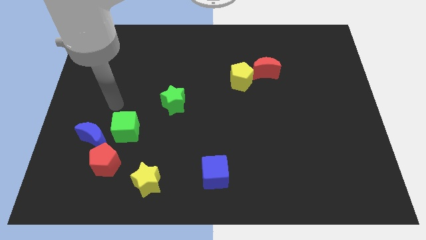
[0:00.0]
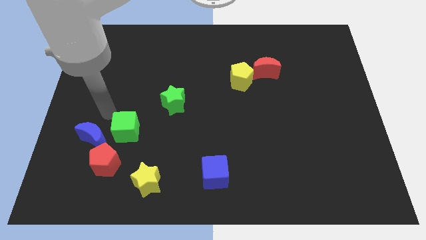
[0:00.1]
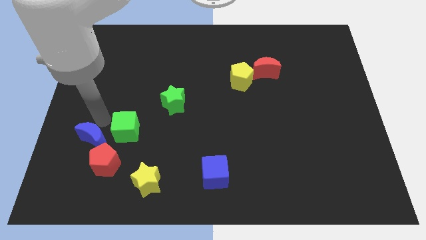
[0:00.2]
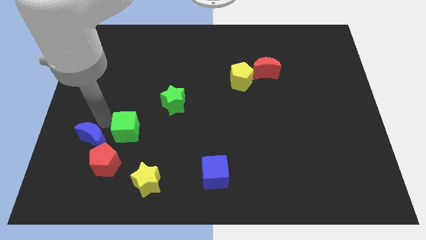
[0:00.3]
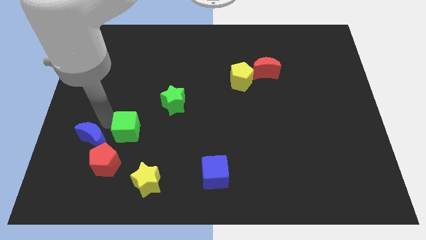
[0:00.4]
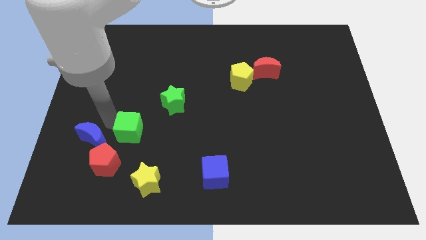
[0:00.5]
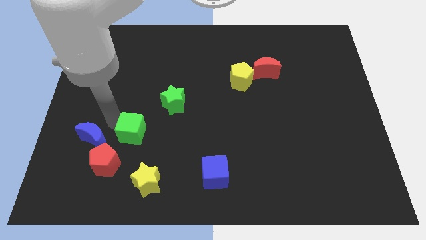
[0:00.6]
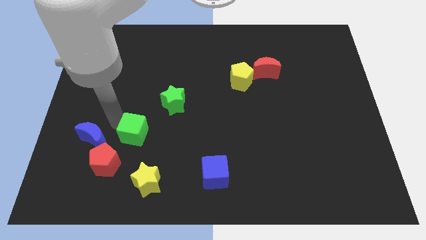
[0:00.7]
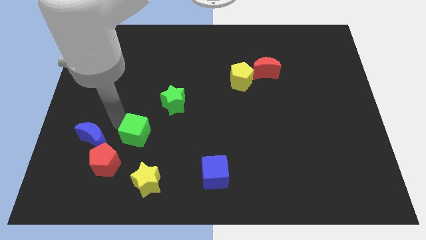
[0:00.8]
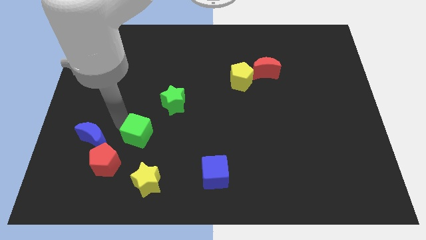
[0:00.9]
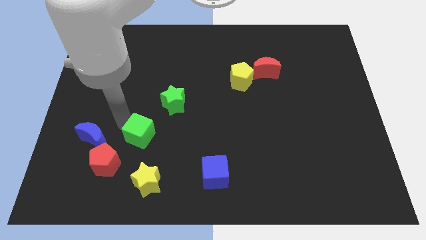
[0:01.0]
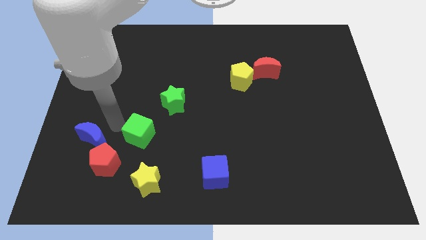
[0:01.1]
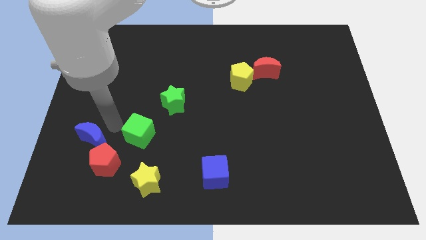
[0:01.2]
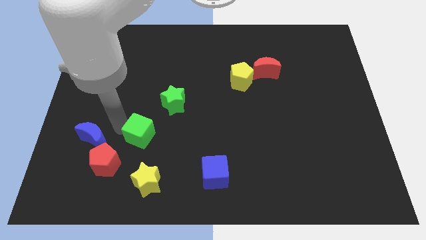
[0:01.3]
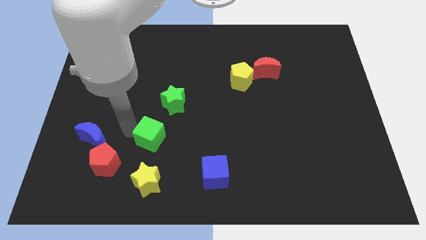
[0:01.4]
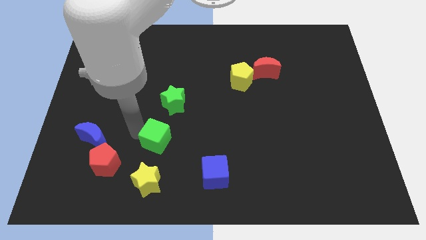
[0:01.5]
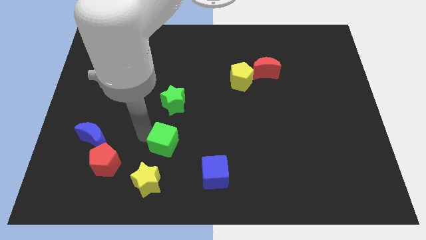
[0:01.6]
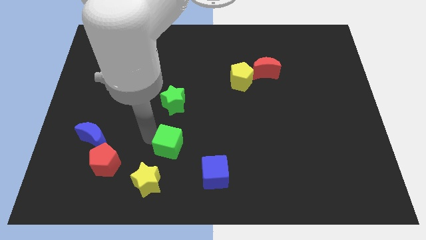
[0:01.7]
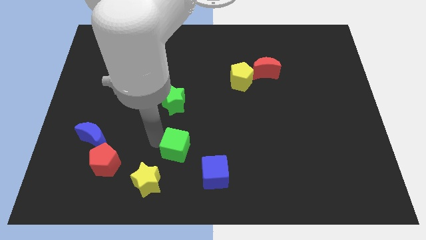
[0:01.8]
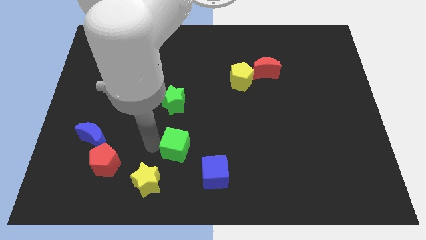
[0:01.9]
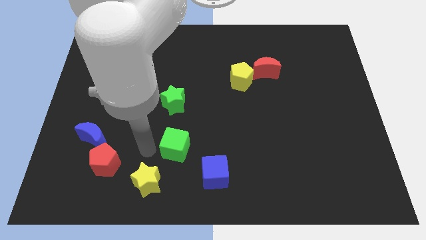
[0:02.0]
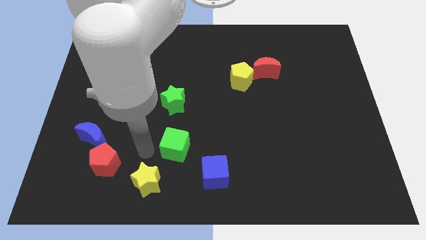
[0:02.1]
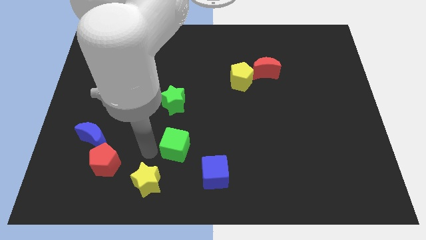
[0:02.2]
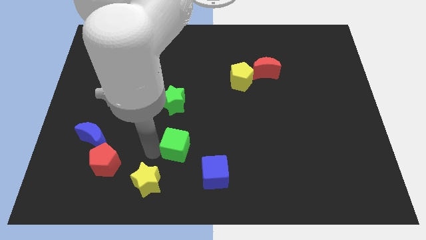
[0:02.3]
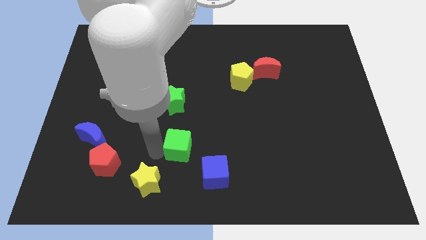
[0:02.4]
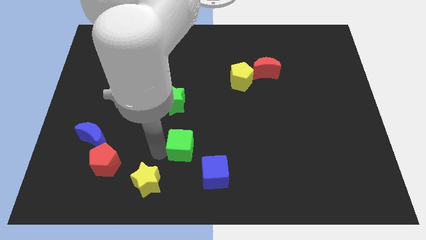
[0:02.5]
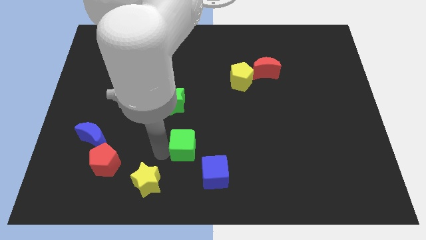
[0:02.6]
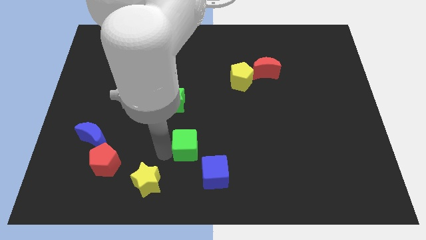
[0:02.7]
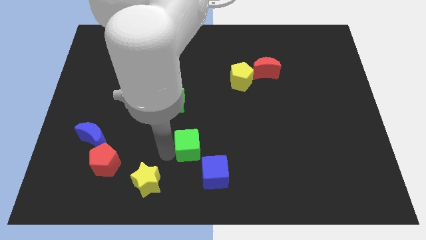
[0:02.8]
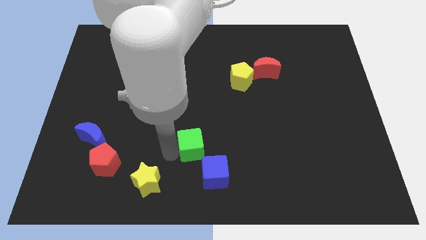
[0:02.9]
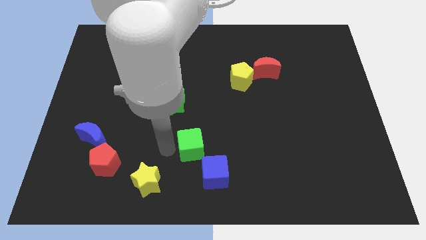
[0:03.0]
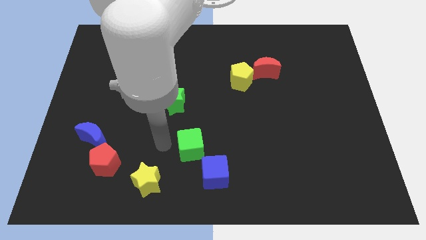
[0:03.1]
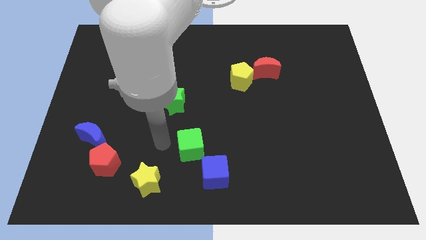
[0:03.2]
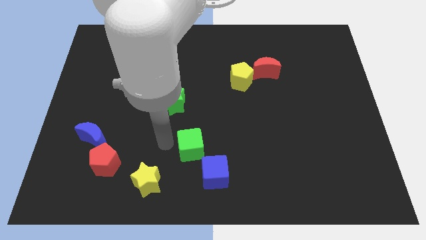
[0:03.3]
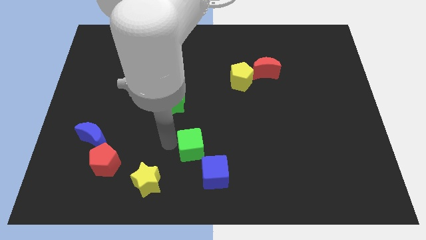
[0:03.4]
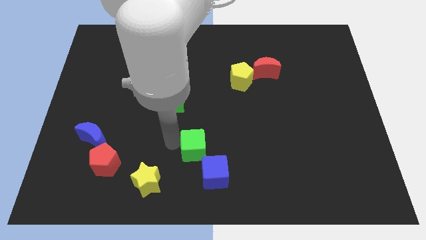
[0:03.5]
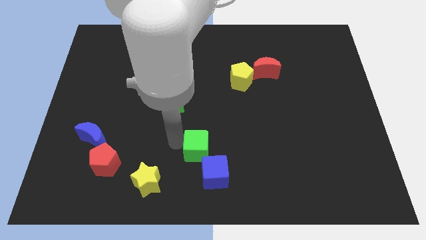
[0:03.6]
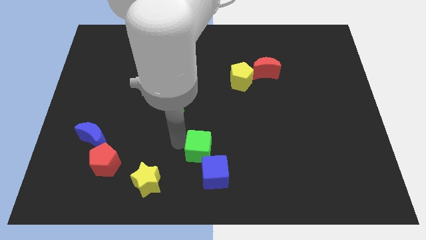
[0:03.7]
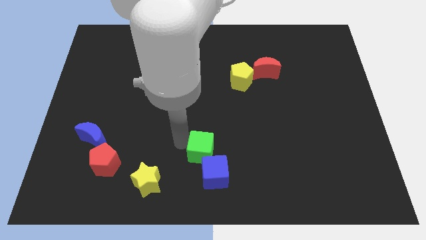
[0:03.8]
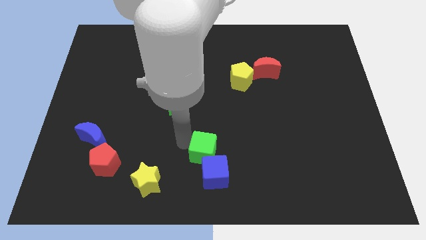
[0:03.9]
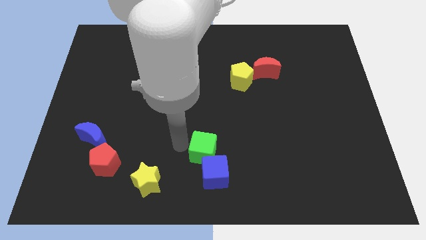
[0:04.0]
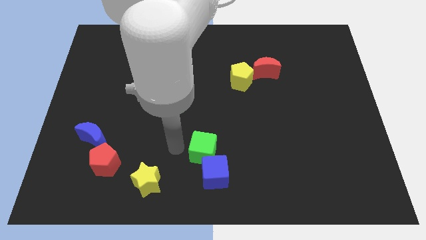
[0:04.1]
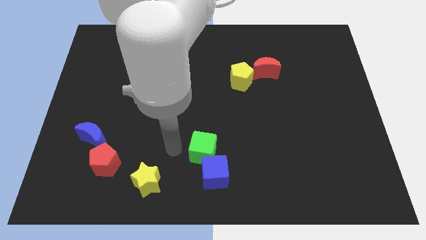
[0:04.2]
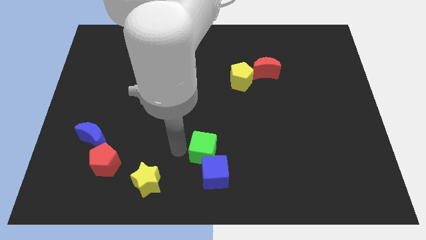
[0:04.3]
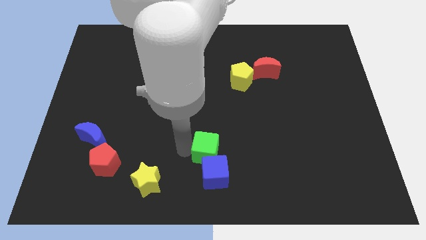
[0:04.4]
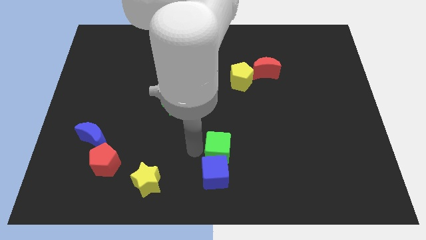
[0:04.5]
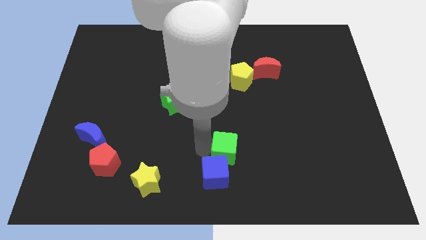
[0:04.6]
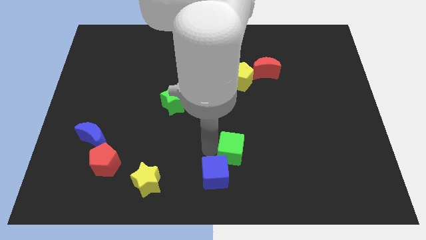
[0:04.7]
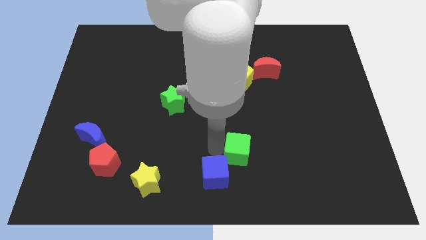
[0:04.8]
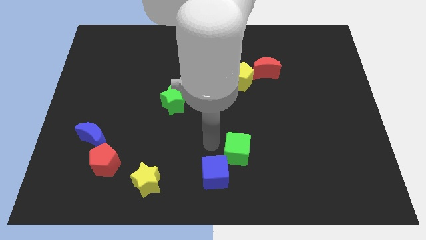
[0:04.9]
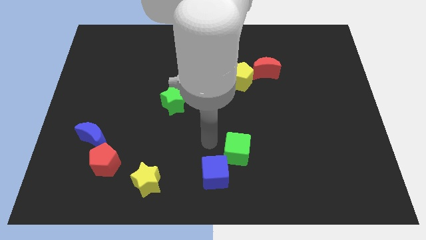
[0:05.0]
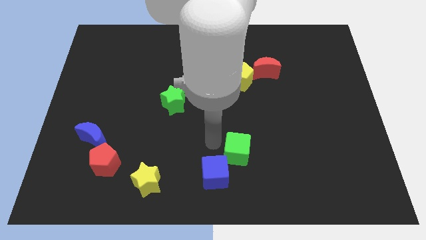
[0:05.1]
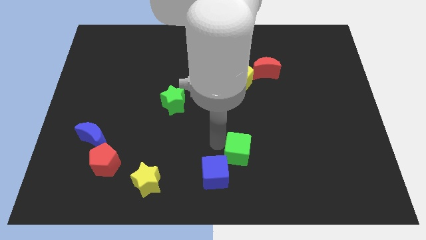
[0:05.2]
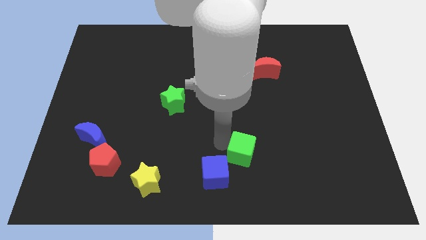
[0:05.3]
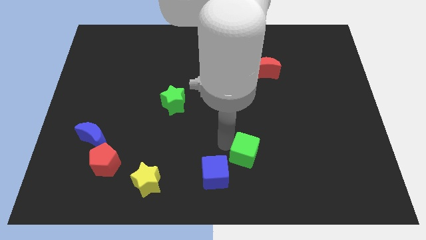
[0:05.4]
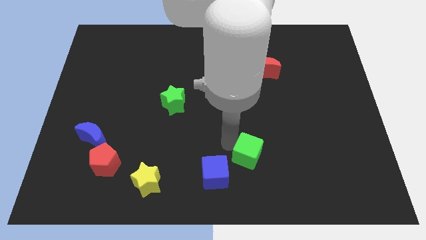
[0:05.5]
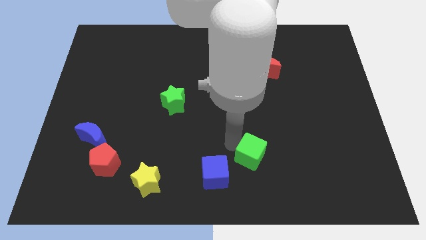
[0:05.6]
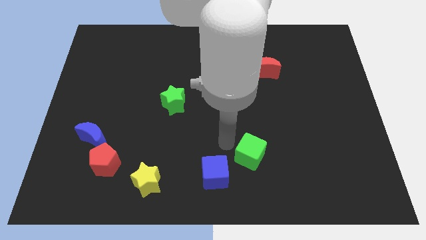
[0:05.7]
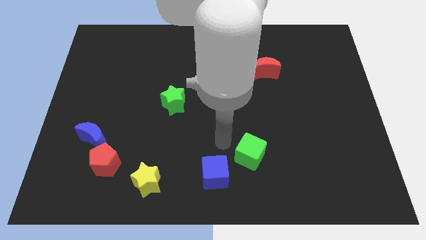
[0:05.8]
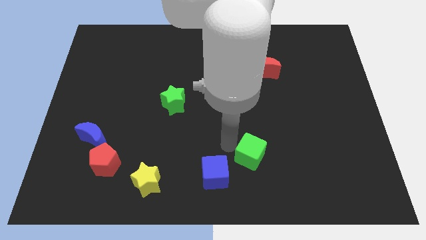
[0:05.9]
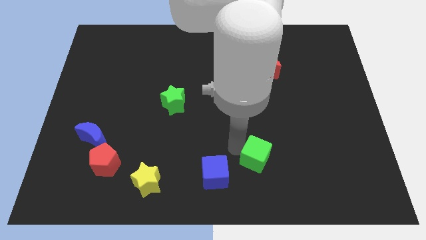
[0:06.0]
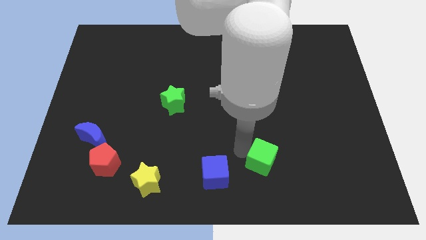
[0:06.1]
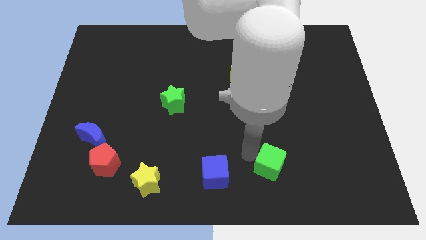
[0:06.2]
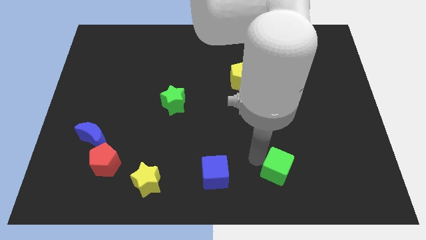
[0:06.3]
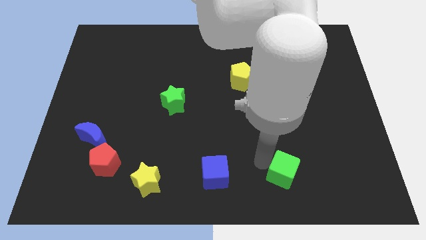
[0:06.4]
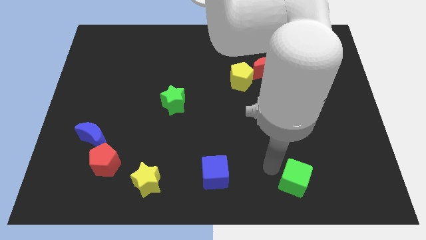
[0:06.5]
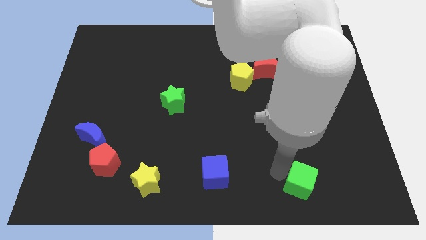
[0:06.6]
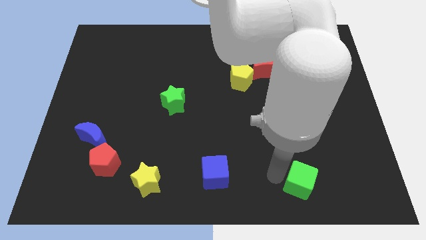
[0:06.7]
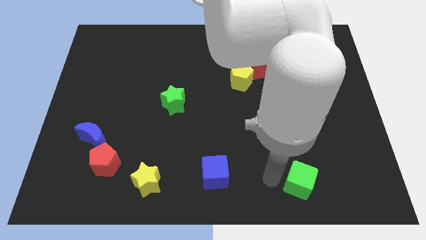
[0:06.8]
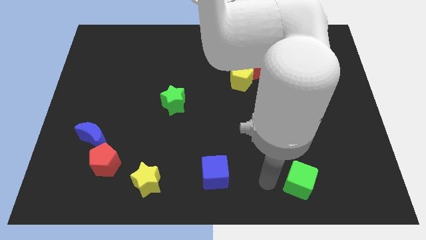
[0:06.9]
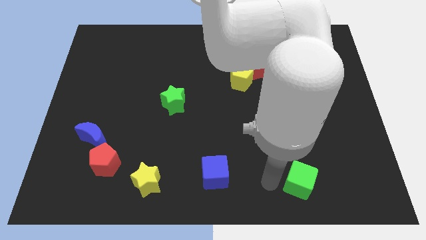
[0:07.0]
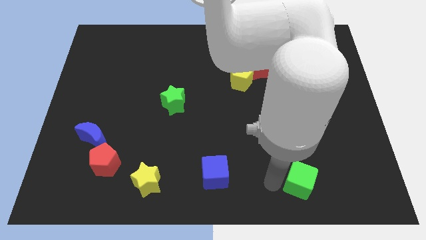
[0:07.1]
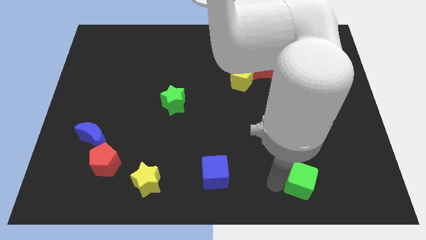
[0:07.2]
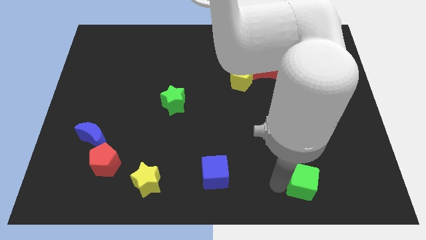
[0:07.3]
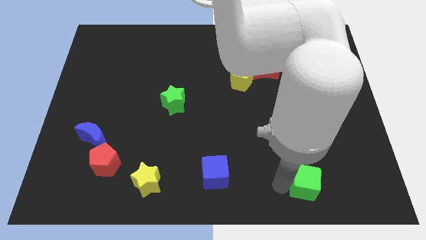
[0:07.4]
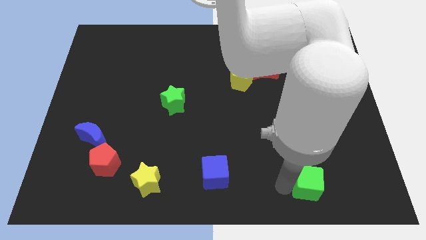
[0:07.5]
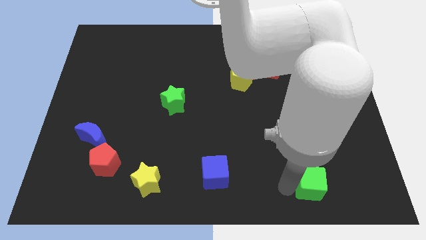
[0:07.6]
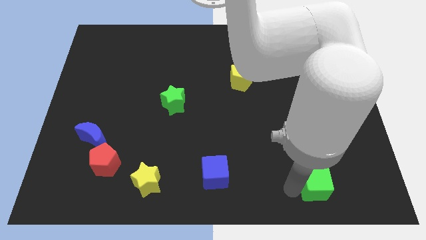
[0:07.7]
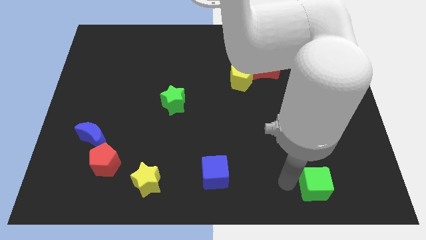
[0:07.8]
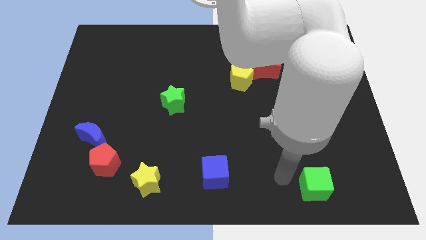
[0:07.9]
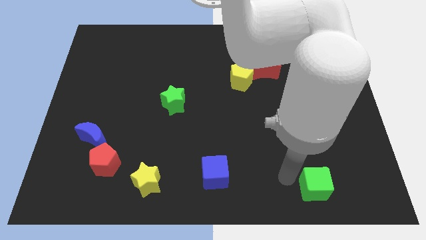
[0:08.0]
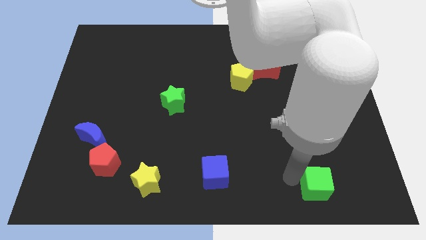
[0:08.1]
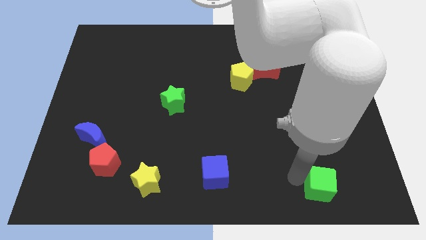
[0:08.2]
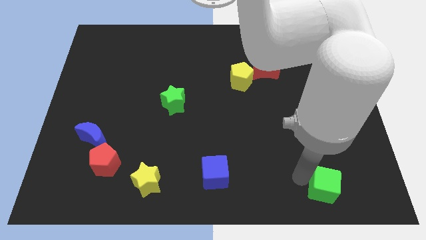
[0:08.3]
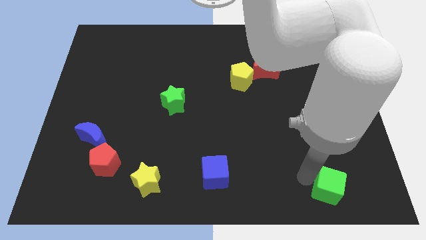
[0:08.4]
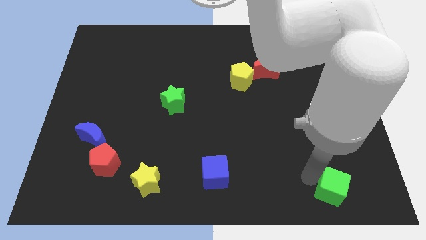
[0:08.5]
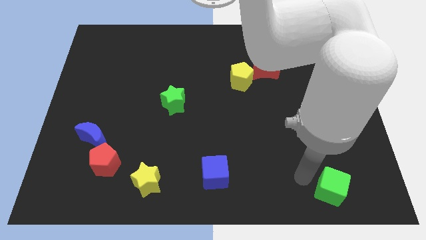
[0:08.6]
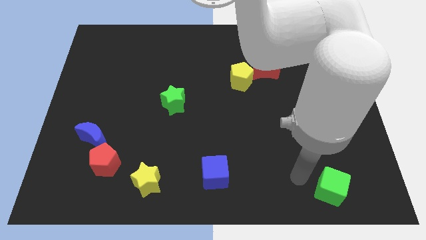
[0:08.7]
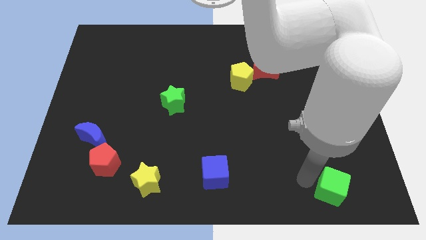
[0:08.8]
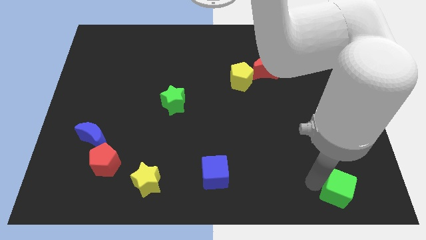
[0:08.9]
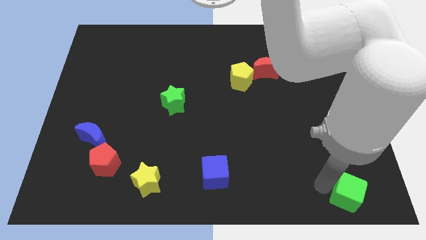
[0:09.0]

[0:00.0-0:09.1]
move the green cube to the bottom right corner
